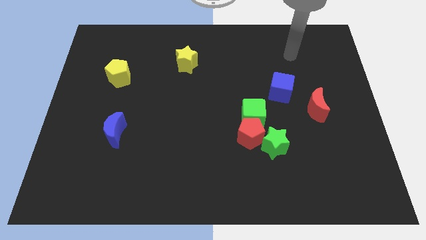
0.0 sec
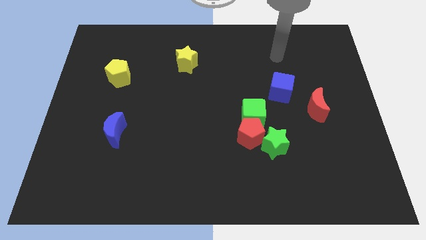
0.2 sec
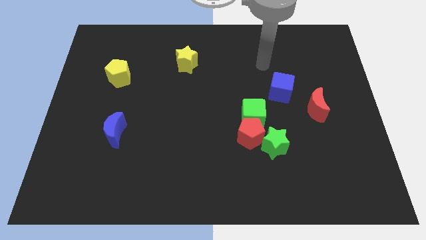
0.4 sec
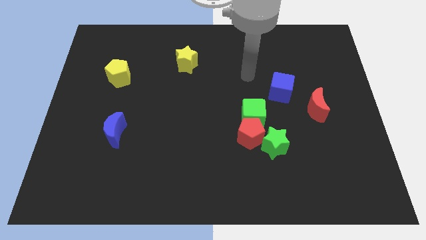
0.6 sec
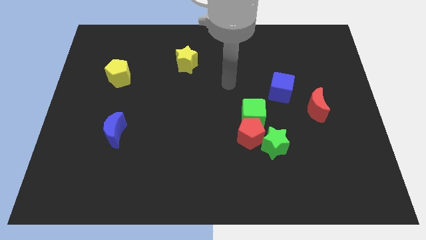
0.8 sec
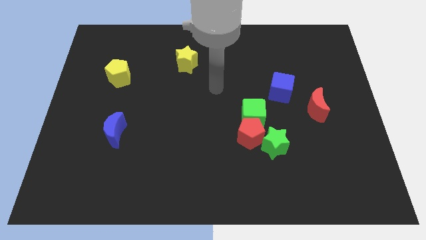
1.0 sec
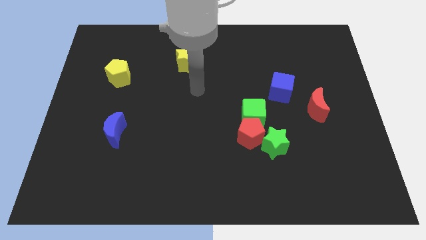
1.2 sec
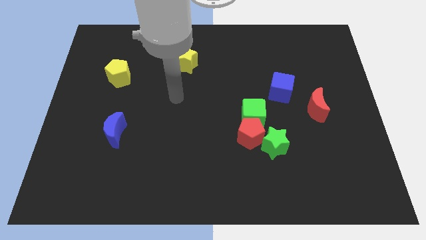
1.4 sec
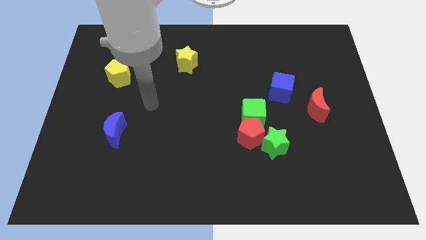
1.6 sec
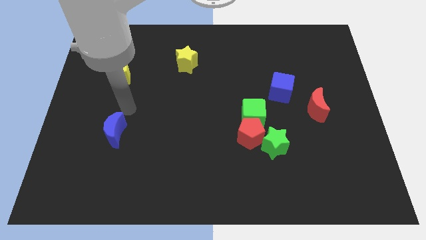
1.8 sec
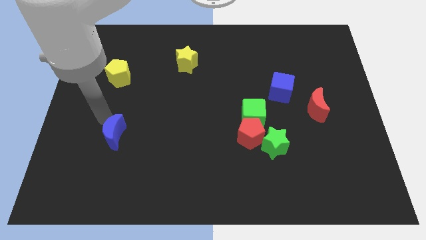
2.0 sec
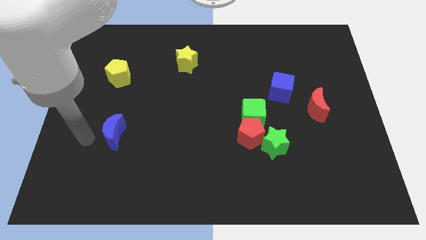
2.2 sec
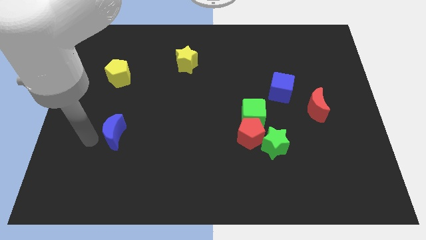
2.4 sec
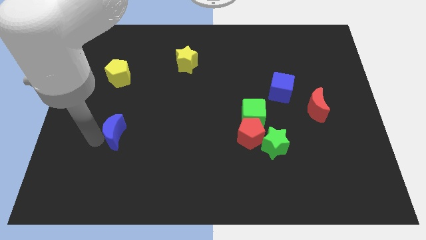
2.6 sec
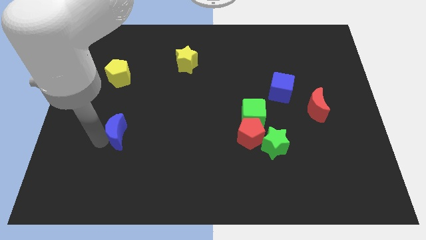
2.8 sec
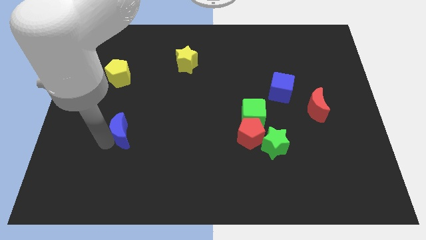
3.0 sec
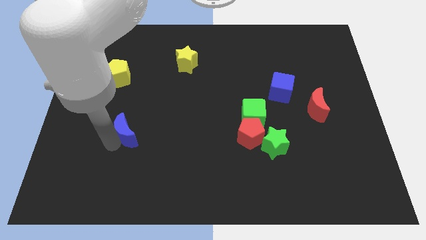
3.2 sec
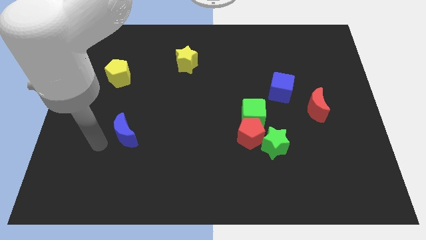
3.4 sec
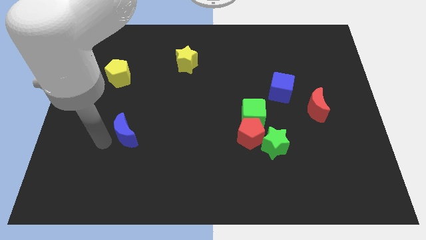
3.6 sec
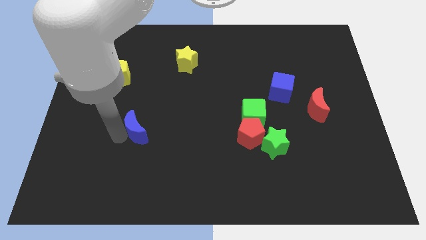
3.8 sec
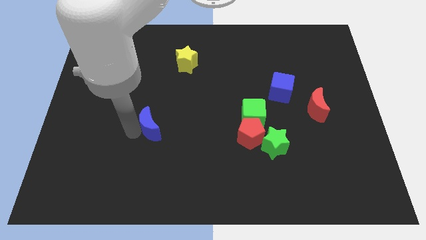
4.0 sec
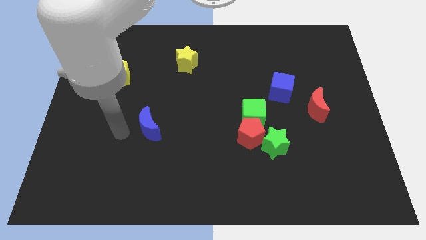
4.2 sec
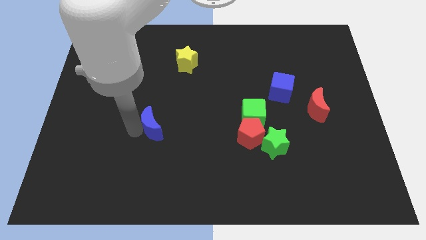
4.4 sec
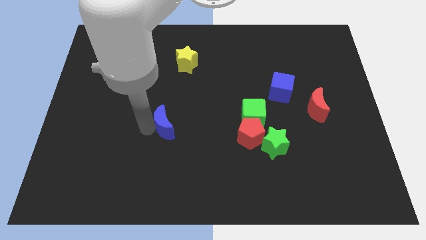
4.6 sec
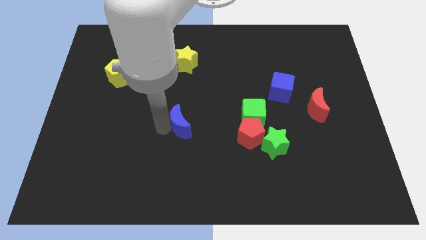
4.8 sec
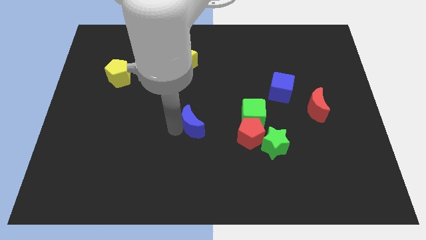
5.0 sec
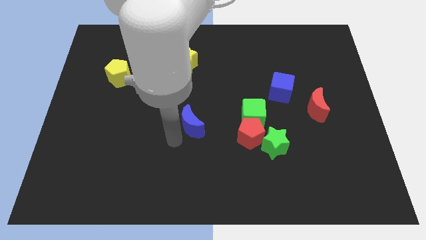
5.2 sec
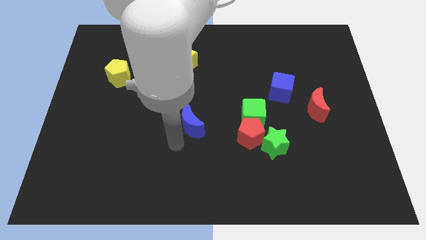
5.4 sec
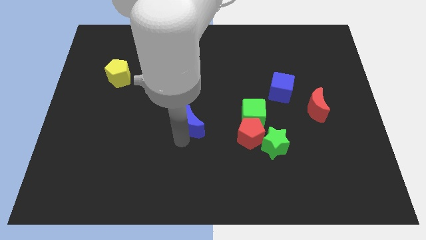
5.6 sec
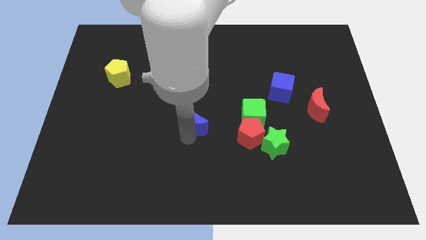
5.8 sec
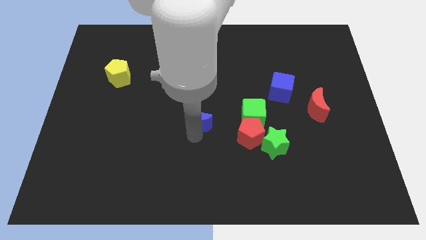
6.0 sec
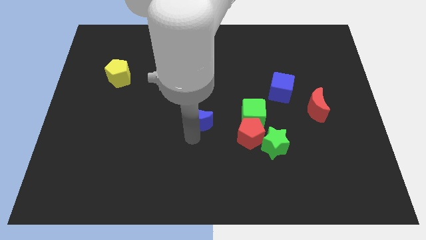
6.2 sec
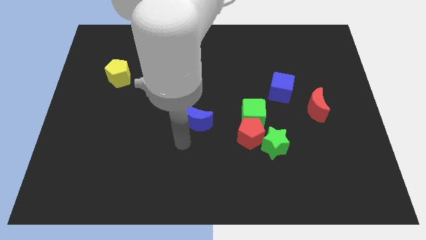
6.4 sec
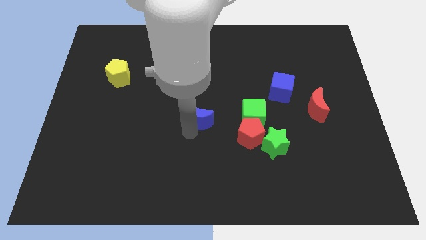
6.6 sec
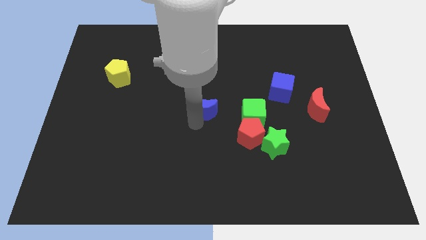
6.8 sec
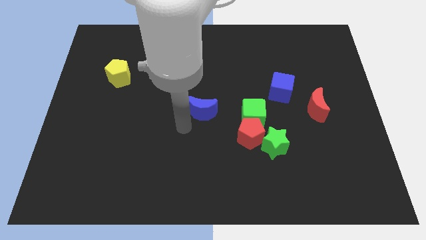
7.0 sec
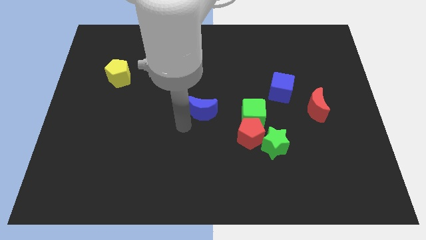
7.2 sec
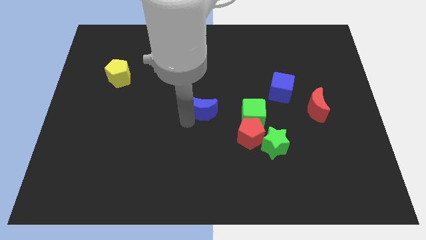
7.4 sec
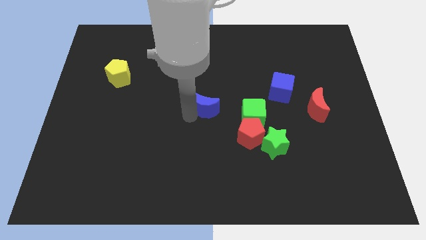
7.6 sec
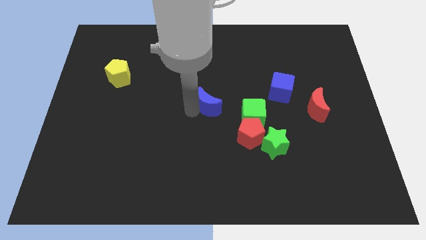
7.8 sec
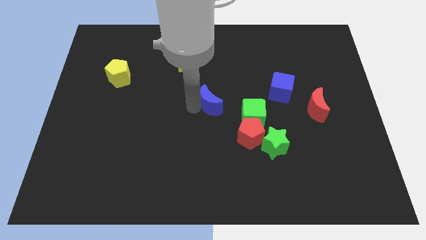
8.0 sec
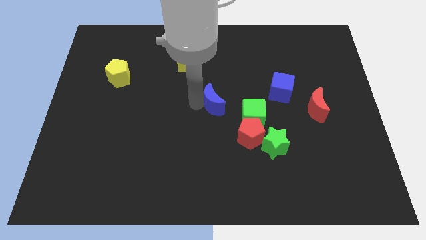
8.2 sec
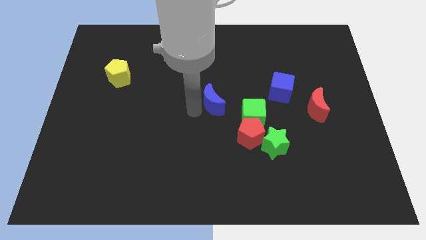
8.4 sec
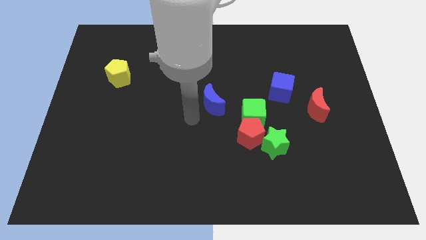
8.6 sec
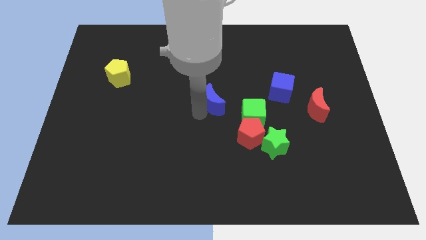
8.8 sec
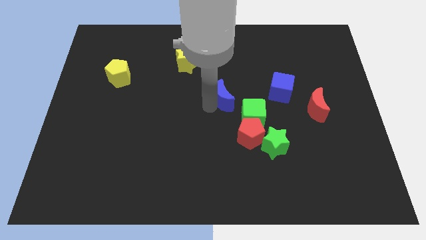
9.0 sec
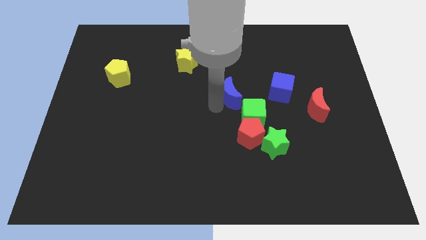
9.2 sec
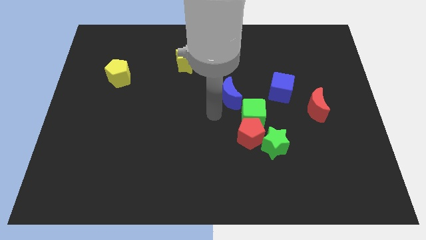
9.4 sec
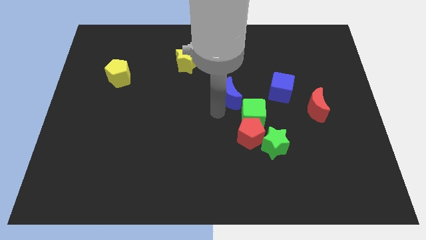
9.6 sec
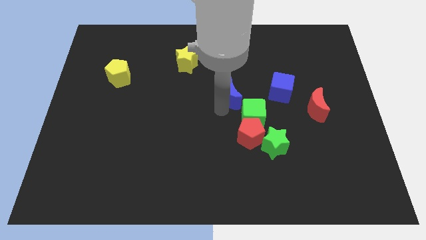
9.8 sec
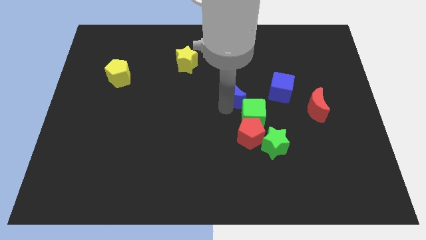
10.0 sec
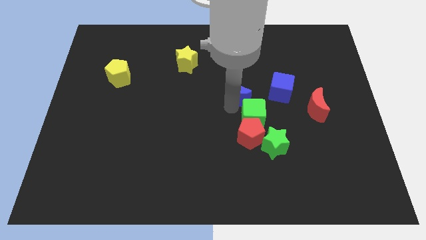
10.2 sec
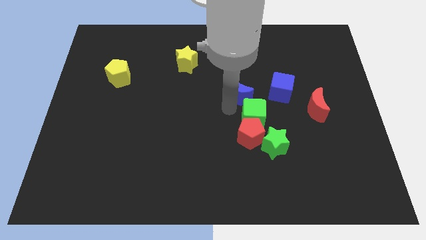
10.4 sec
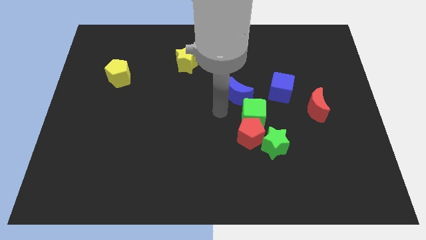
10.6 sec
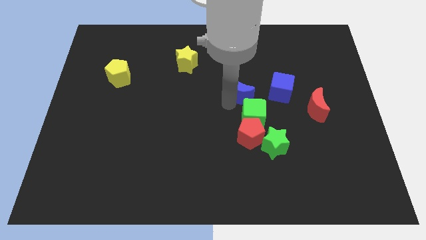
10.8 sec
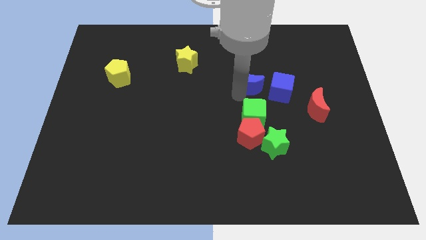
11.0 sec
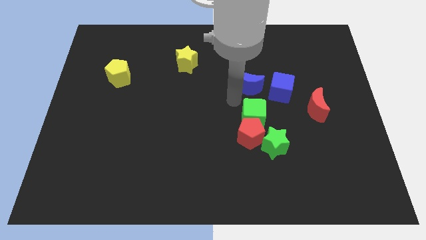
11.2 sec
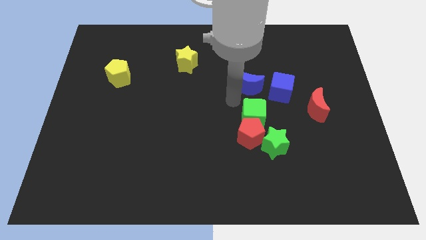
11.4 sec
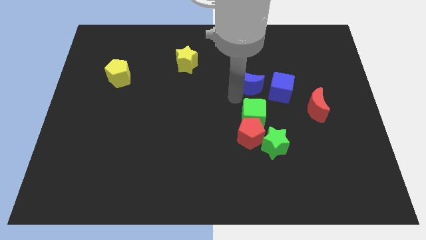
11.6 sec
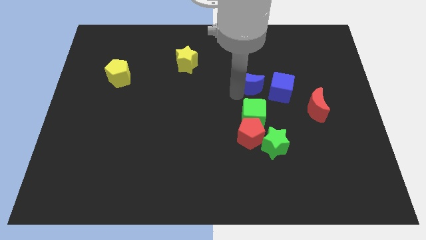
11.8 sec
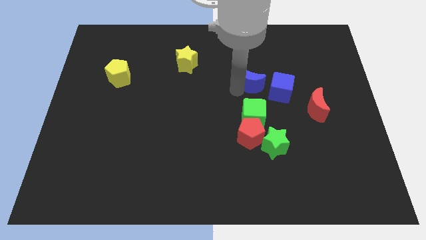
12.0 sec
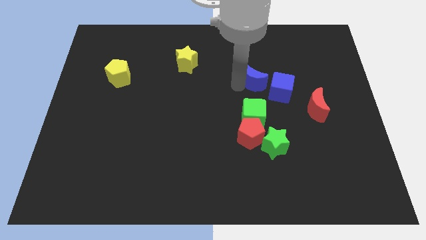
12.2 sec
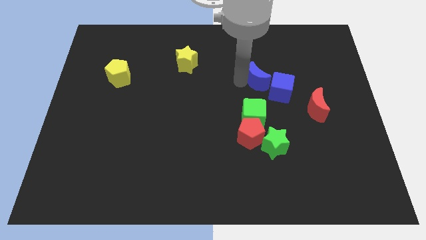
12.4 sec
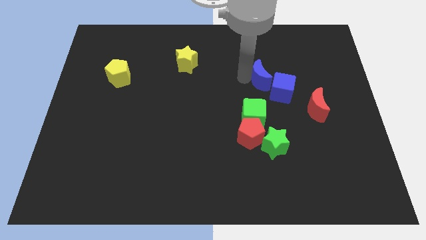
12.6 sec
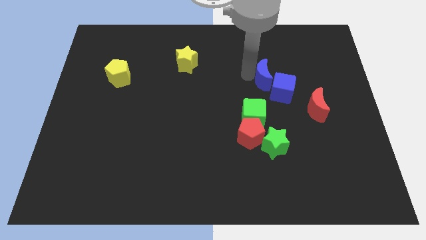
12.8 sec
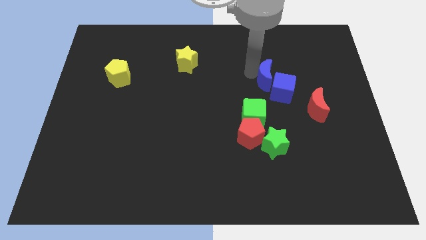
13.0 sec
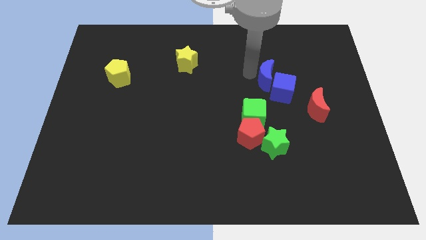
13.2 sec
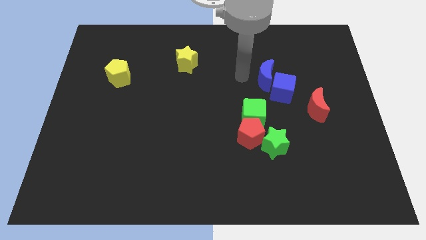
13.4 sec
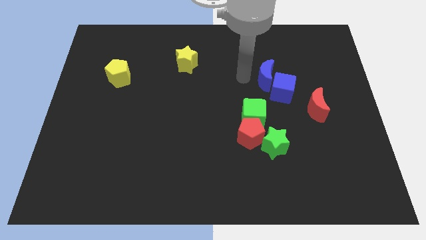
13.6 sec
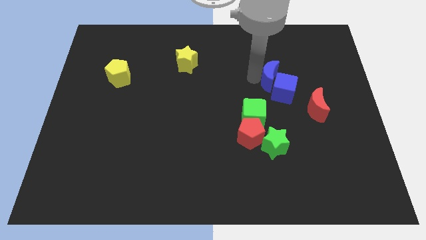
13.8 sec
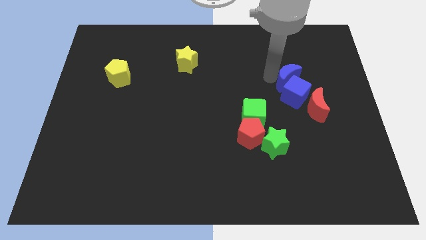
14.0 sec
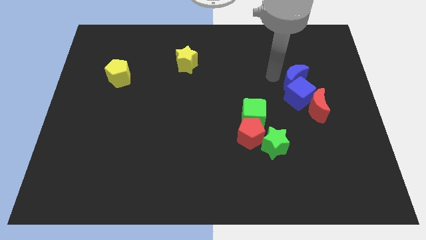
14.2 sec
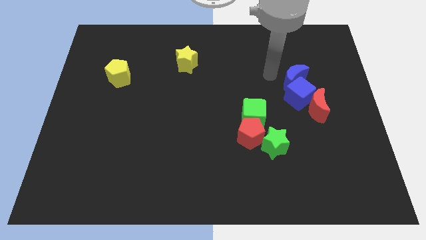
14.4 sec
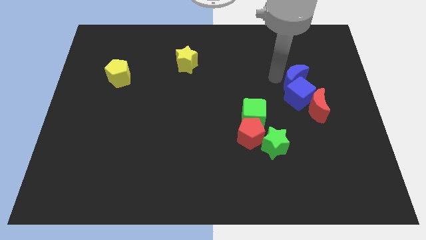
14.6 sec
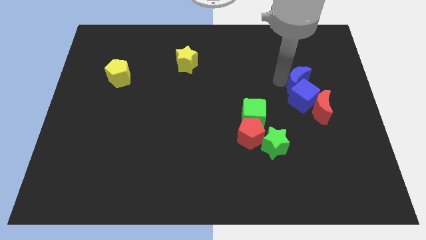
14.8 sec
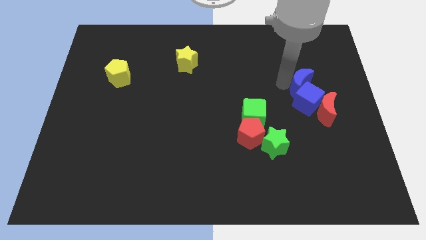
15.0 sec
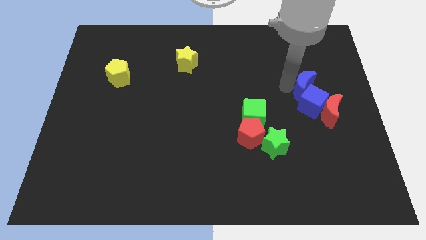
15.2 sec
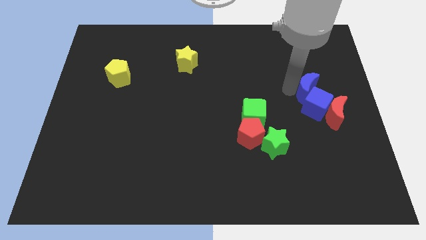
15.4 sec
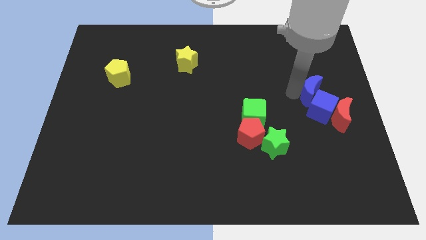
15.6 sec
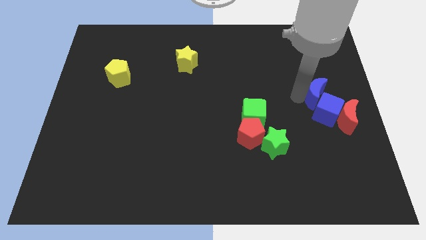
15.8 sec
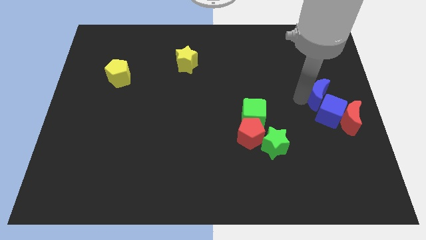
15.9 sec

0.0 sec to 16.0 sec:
push the blue moon to the right side
